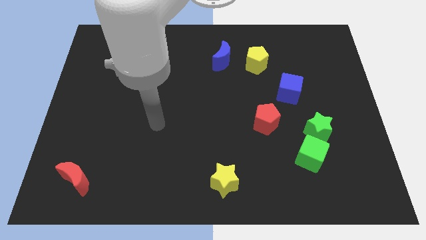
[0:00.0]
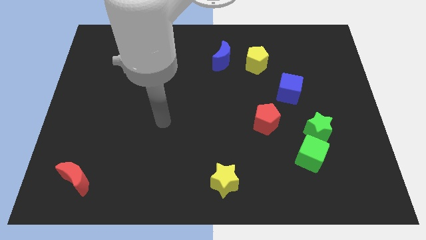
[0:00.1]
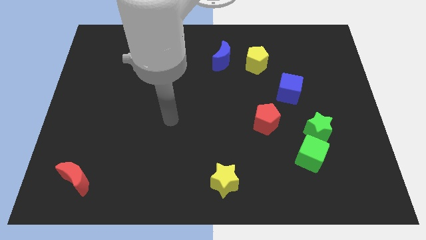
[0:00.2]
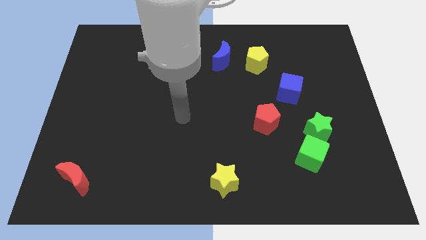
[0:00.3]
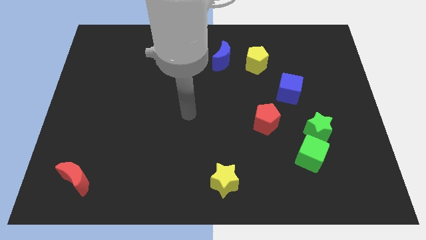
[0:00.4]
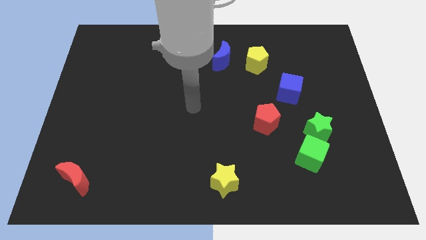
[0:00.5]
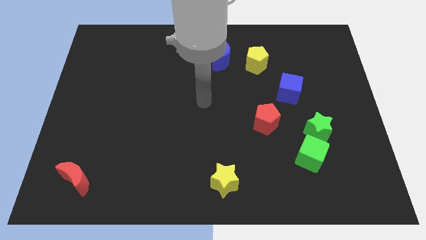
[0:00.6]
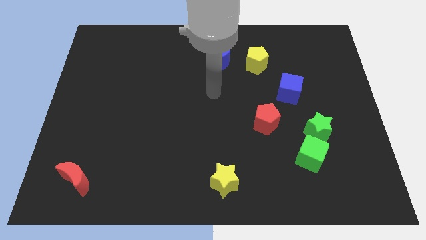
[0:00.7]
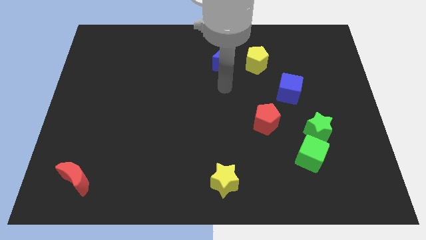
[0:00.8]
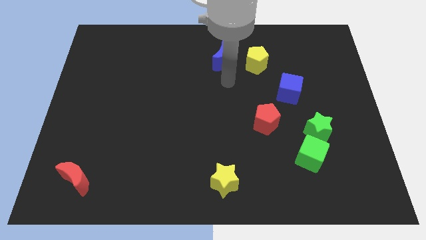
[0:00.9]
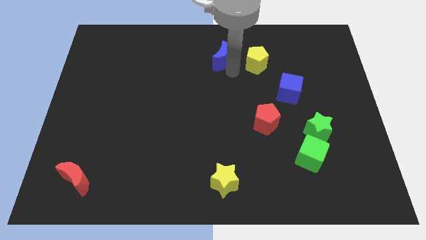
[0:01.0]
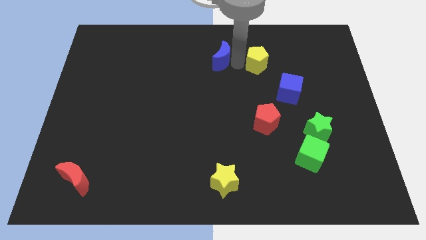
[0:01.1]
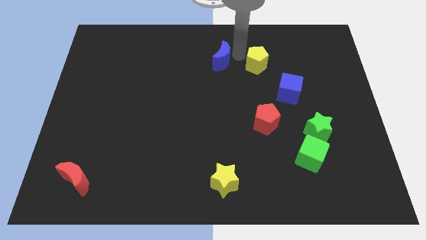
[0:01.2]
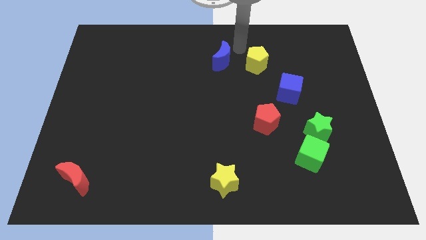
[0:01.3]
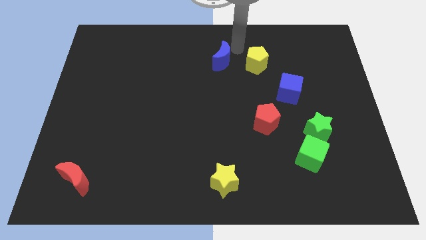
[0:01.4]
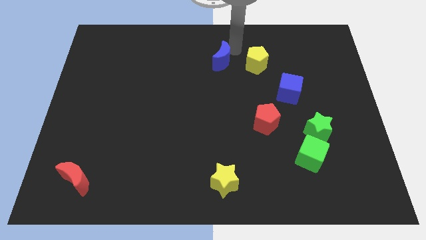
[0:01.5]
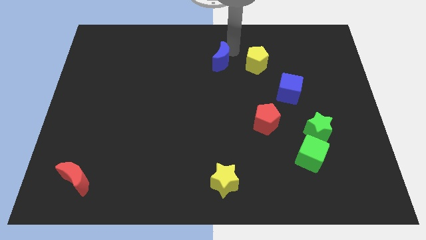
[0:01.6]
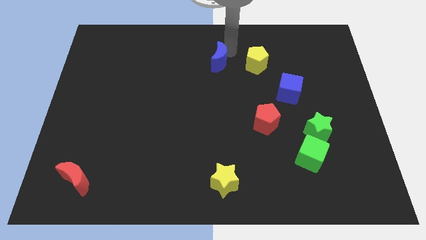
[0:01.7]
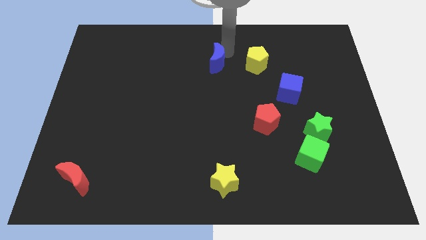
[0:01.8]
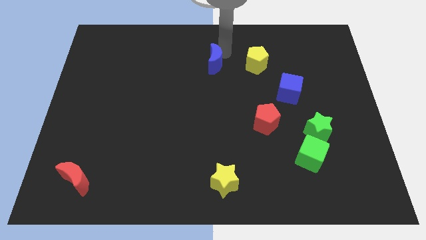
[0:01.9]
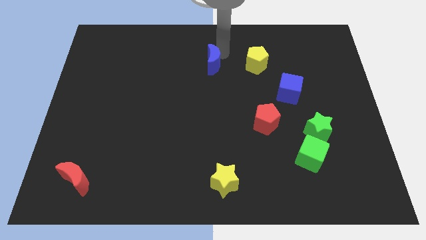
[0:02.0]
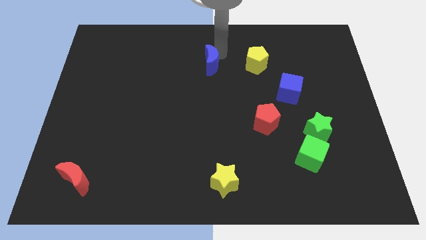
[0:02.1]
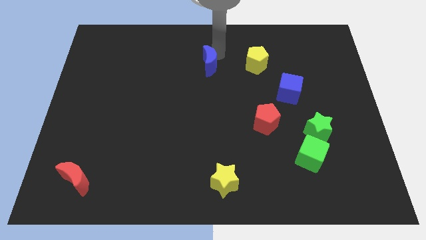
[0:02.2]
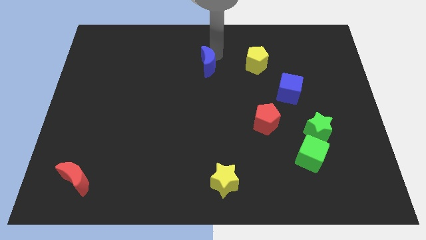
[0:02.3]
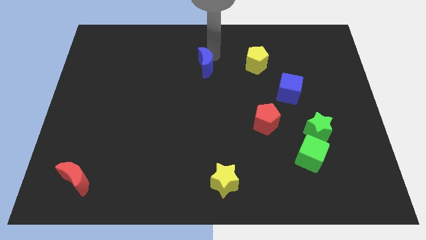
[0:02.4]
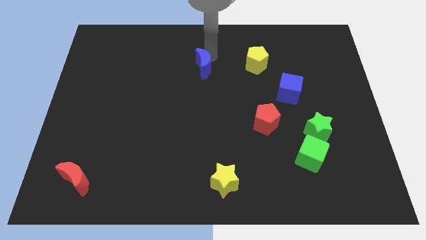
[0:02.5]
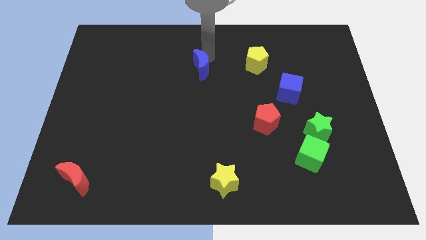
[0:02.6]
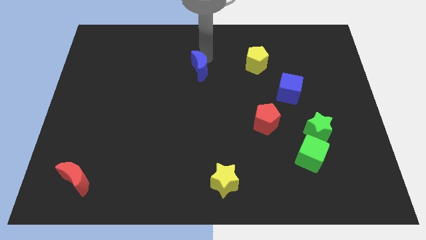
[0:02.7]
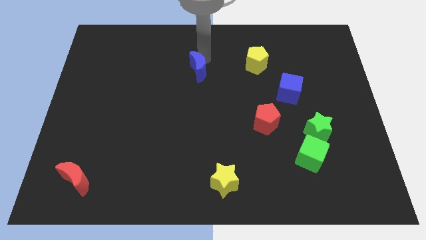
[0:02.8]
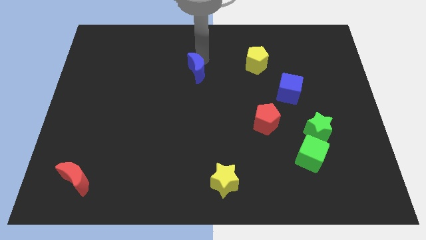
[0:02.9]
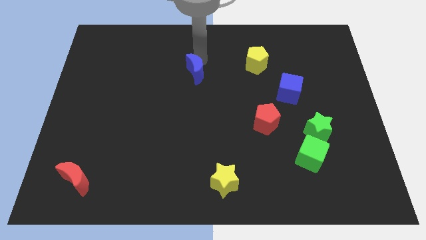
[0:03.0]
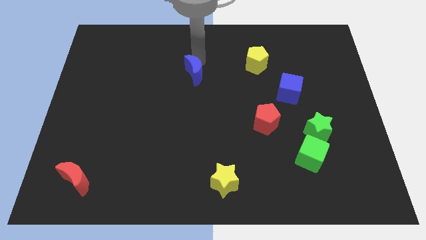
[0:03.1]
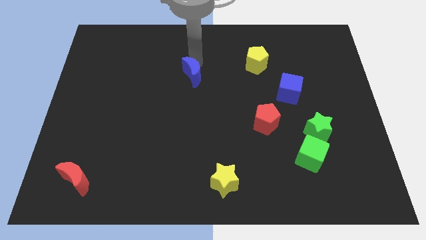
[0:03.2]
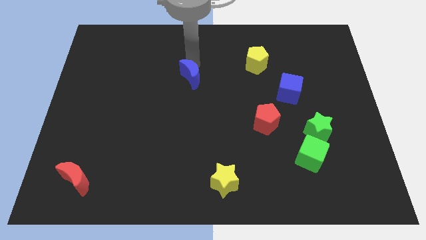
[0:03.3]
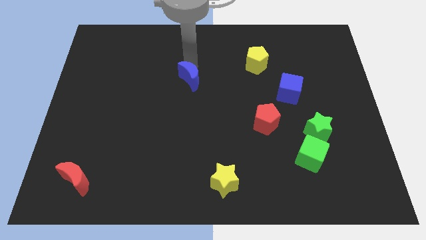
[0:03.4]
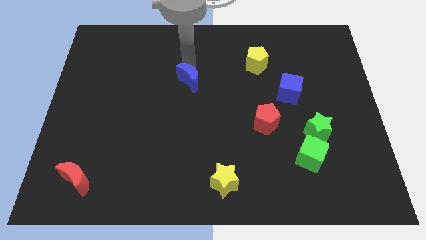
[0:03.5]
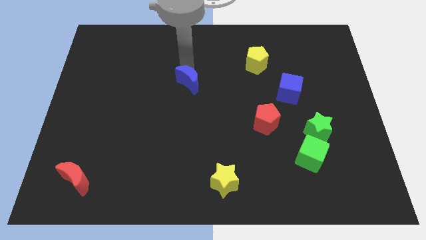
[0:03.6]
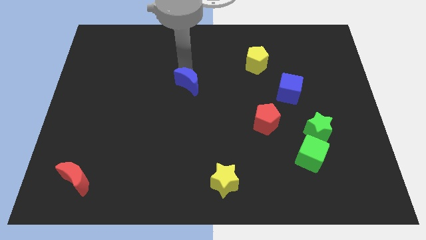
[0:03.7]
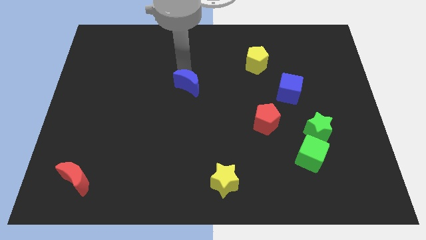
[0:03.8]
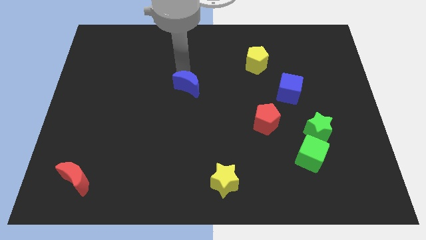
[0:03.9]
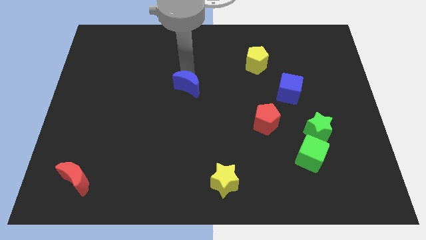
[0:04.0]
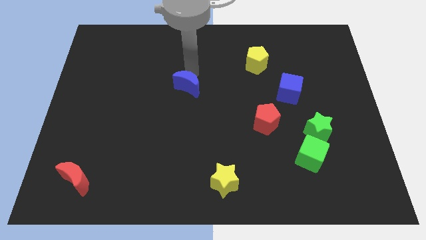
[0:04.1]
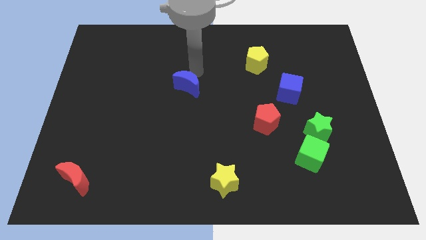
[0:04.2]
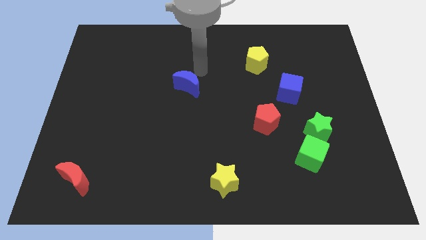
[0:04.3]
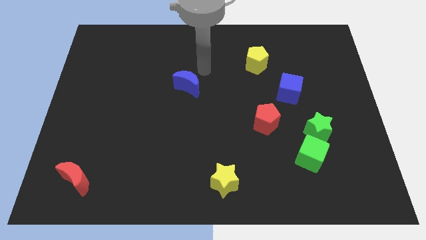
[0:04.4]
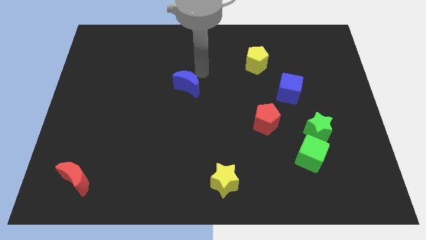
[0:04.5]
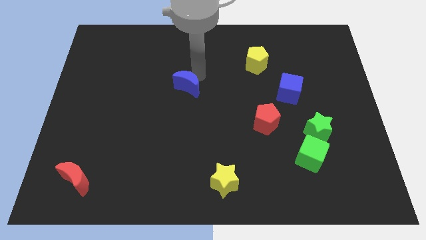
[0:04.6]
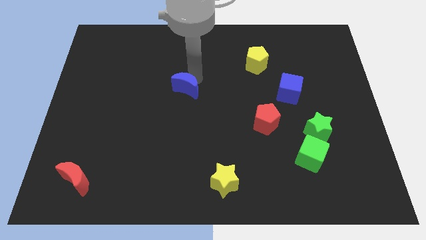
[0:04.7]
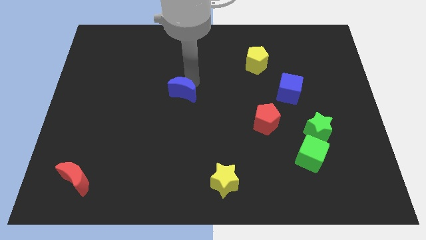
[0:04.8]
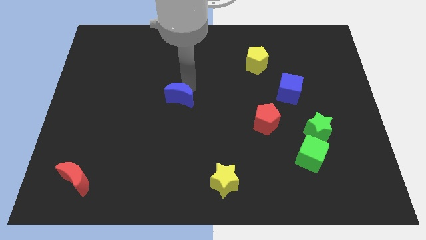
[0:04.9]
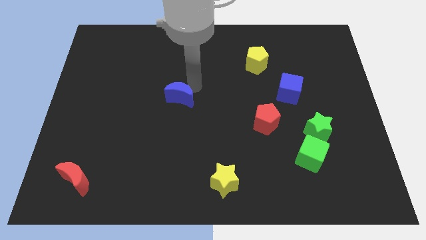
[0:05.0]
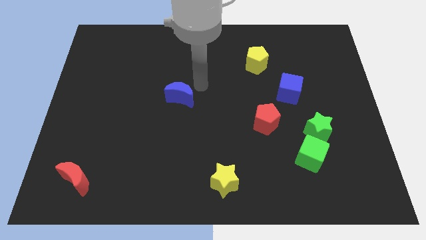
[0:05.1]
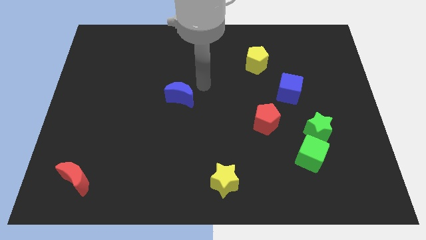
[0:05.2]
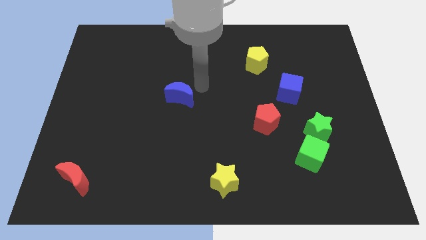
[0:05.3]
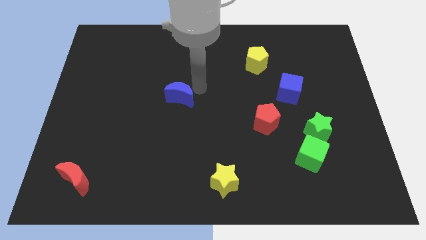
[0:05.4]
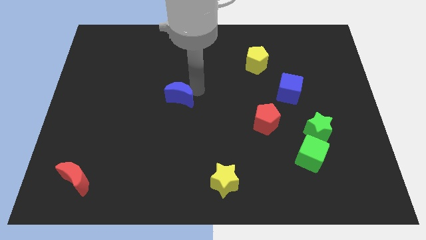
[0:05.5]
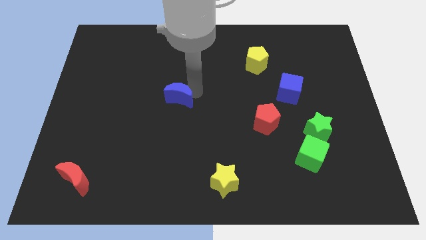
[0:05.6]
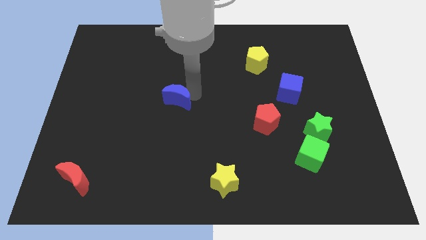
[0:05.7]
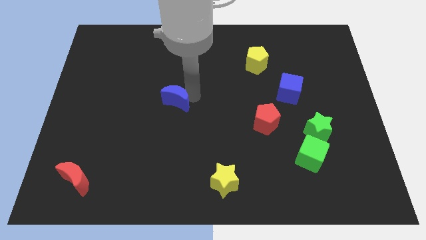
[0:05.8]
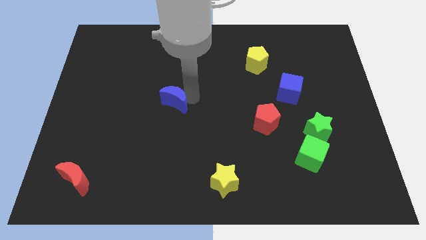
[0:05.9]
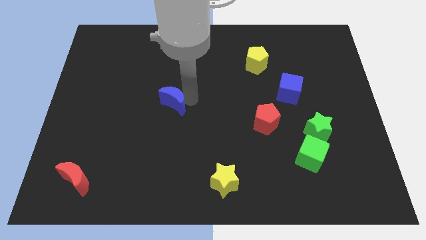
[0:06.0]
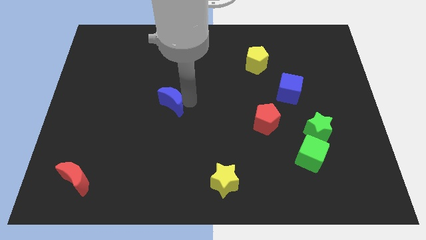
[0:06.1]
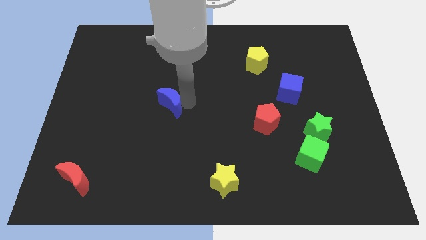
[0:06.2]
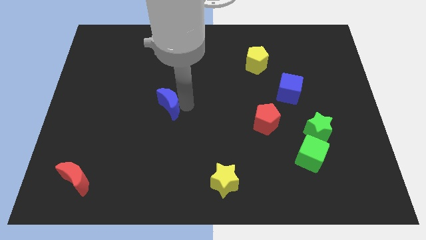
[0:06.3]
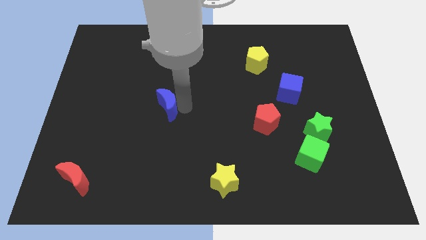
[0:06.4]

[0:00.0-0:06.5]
move the blue moon diagonally downwards and to the left

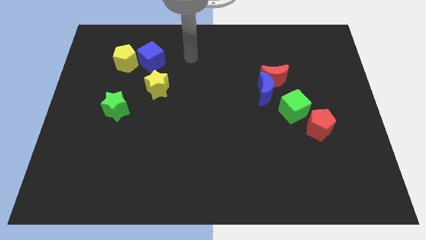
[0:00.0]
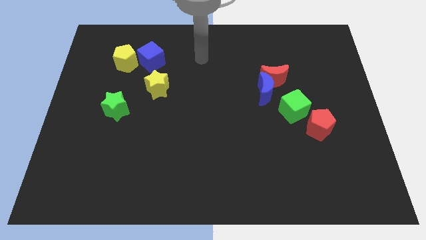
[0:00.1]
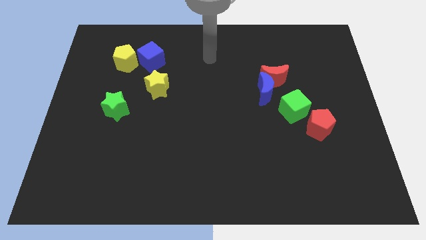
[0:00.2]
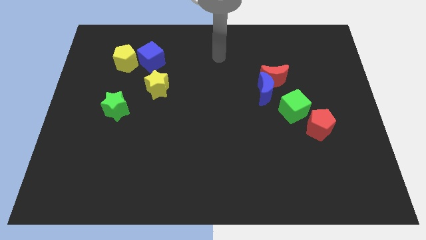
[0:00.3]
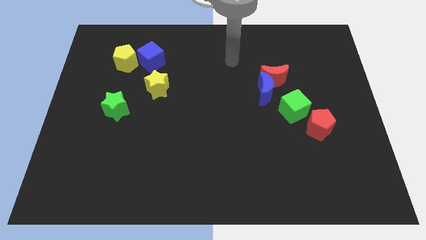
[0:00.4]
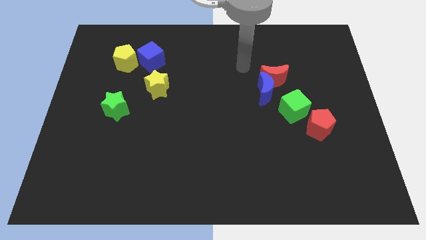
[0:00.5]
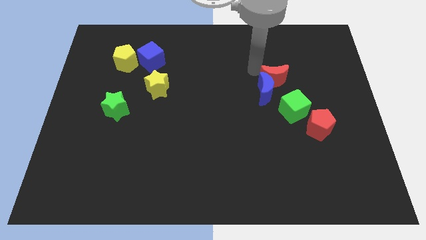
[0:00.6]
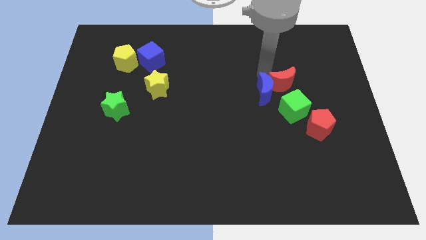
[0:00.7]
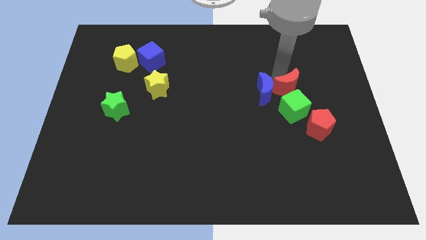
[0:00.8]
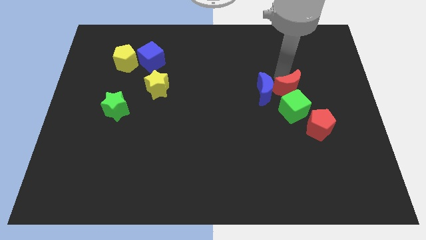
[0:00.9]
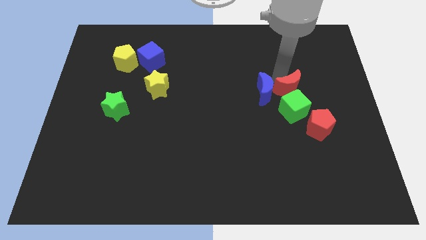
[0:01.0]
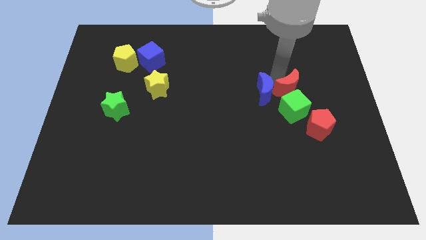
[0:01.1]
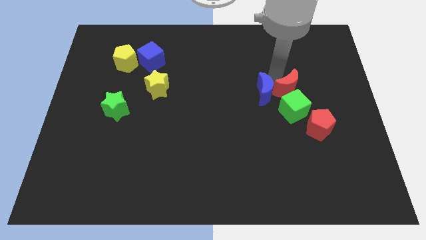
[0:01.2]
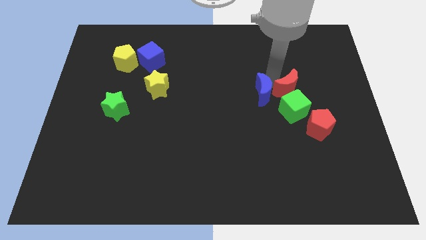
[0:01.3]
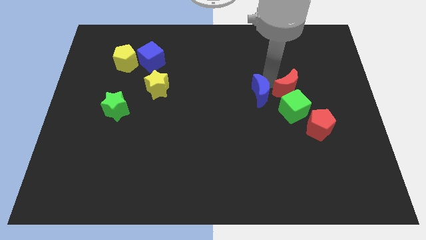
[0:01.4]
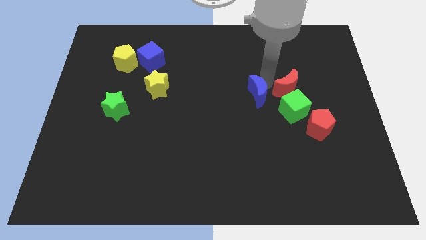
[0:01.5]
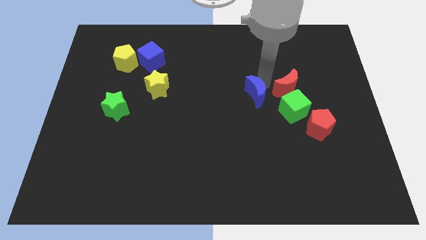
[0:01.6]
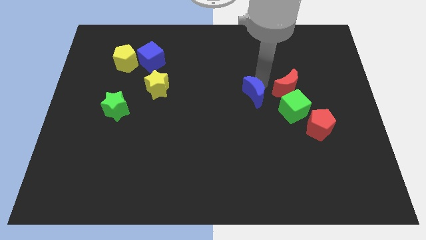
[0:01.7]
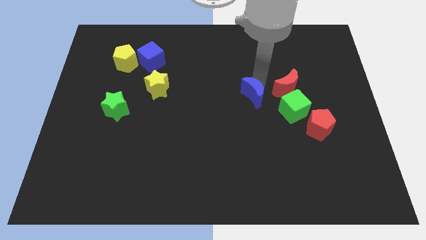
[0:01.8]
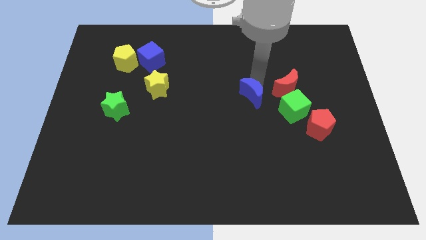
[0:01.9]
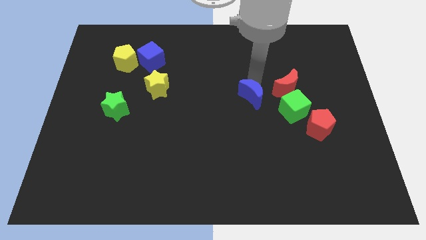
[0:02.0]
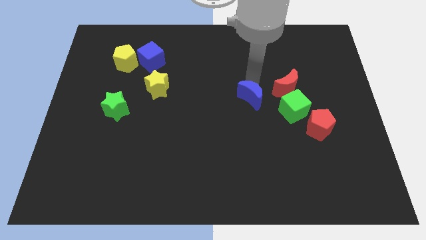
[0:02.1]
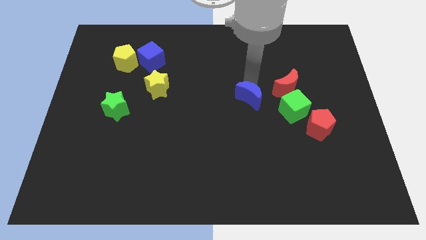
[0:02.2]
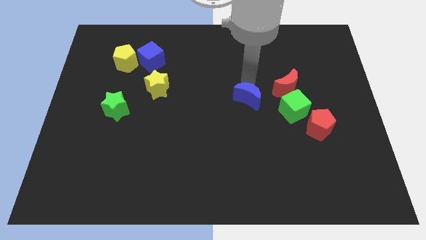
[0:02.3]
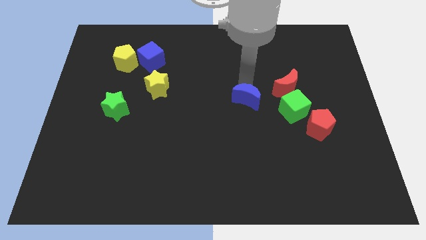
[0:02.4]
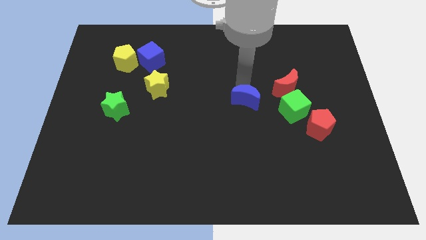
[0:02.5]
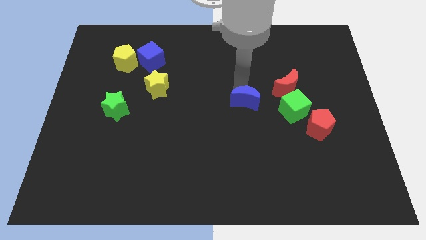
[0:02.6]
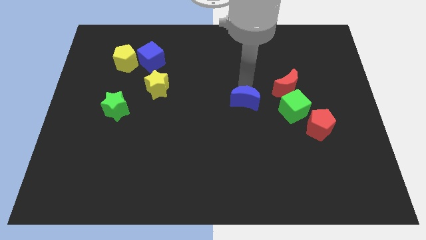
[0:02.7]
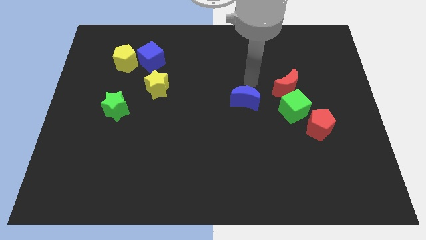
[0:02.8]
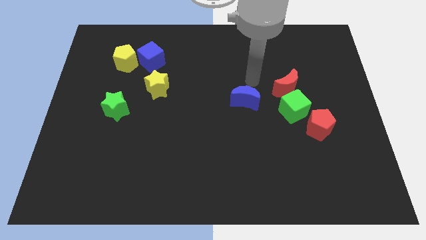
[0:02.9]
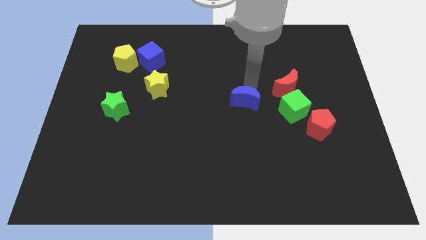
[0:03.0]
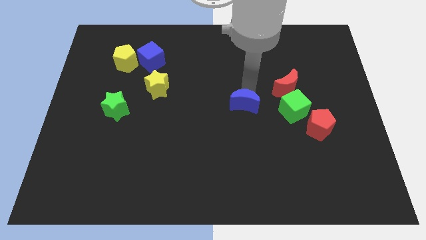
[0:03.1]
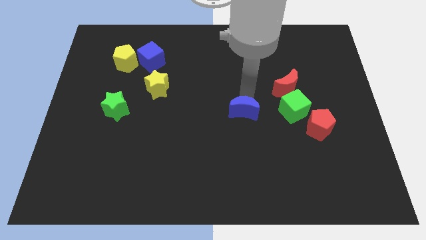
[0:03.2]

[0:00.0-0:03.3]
move the blue moon a little bit down and then left
